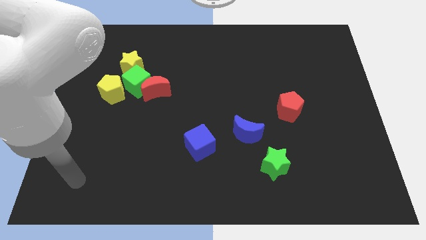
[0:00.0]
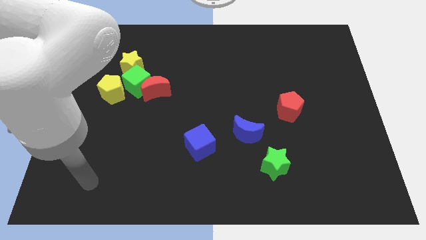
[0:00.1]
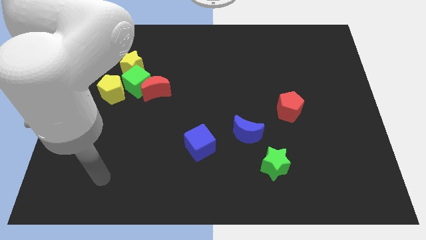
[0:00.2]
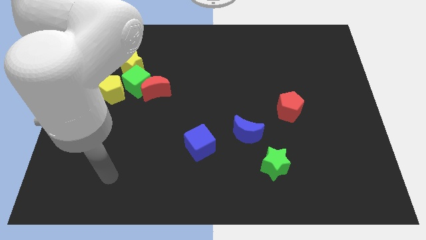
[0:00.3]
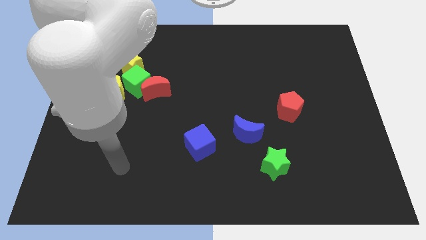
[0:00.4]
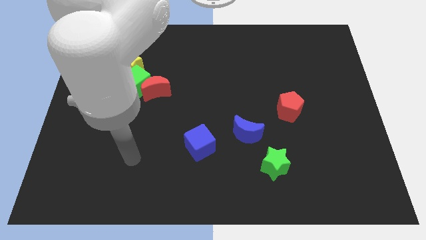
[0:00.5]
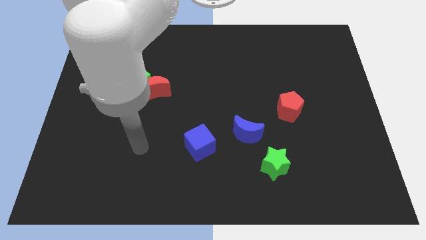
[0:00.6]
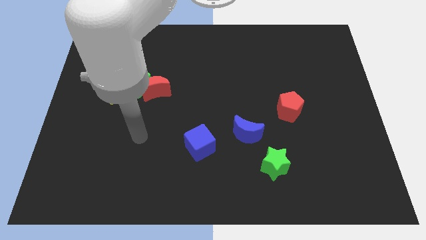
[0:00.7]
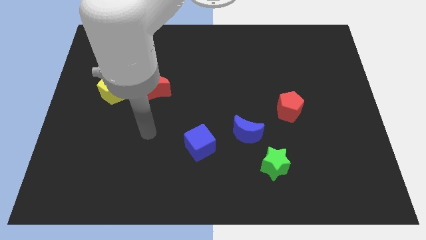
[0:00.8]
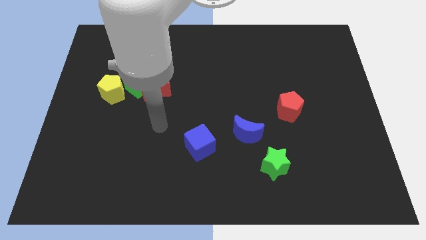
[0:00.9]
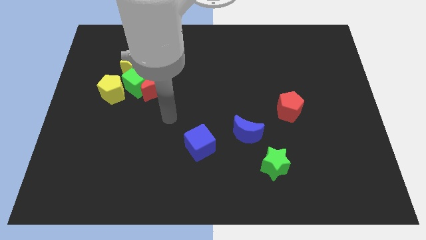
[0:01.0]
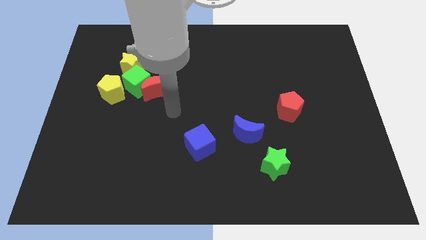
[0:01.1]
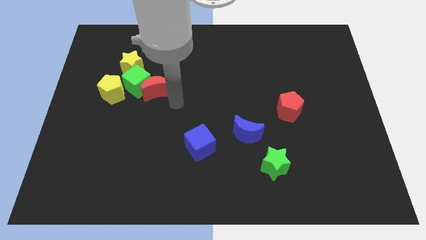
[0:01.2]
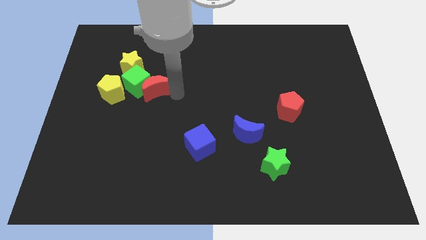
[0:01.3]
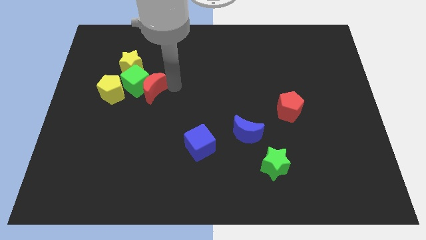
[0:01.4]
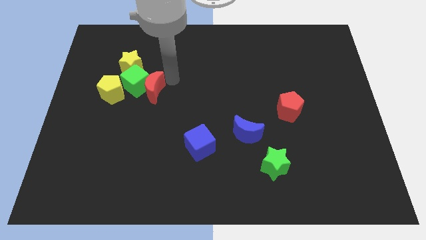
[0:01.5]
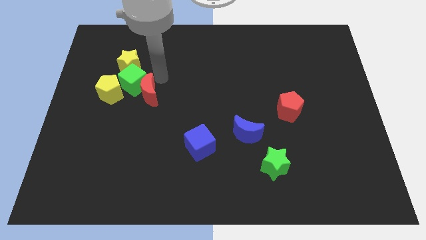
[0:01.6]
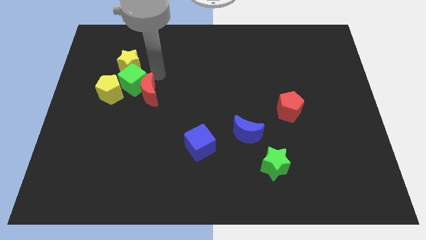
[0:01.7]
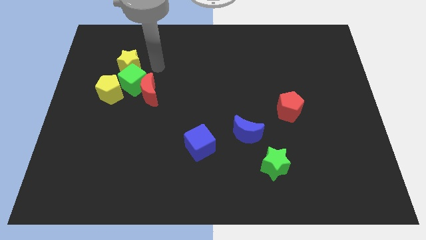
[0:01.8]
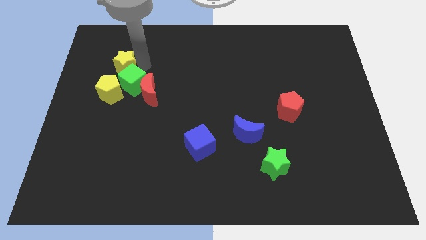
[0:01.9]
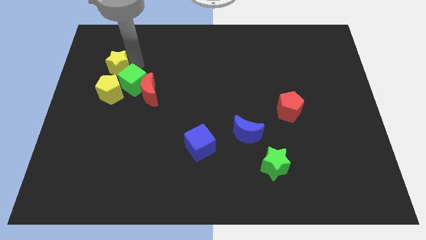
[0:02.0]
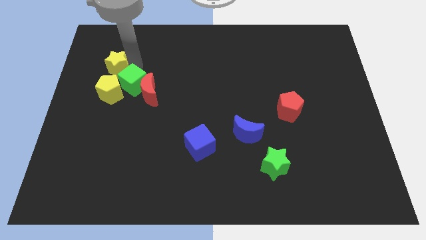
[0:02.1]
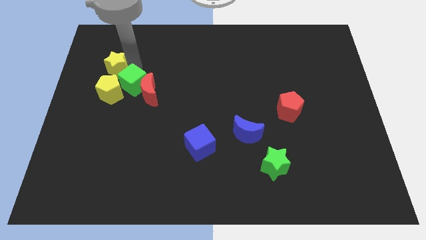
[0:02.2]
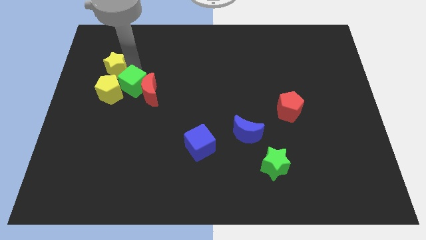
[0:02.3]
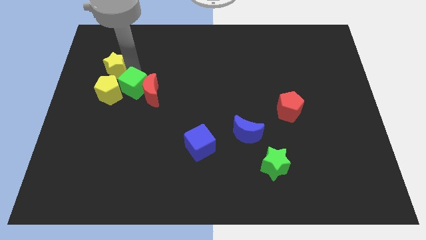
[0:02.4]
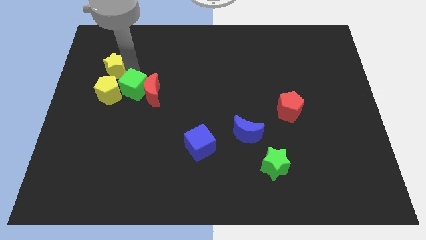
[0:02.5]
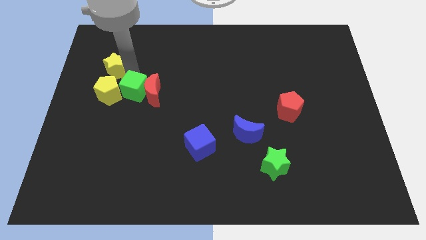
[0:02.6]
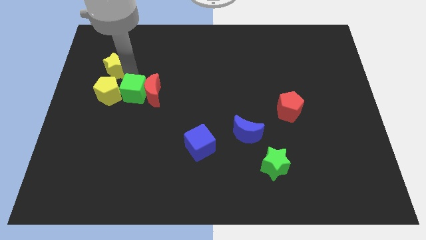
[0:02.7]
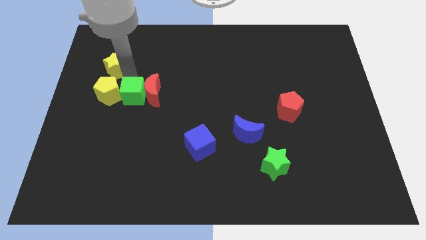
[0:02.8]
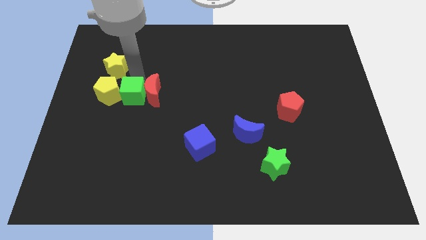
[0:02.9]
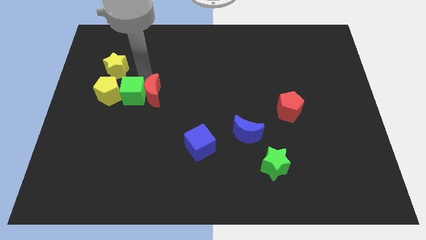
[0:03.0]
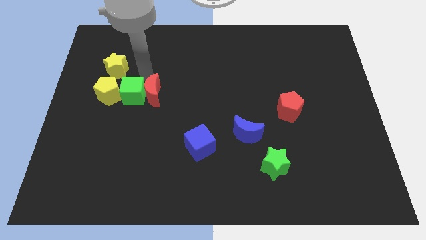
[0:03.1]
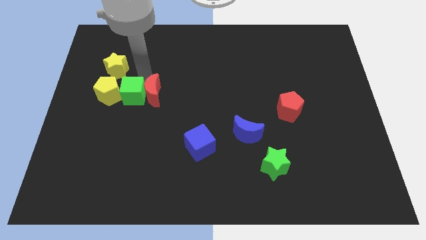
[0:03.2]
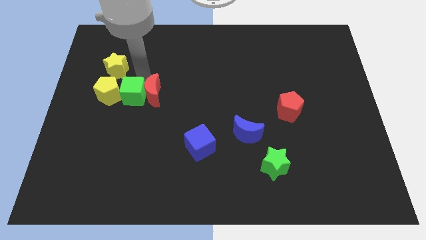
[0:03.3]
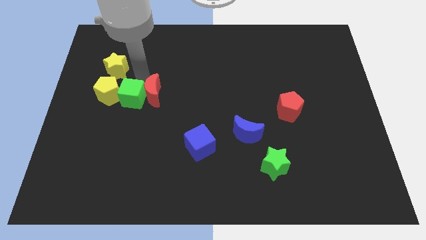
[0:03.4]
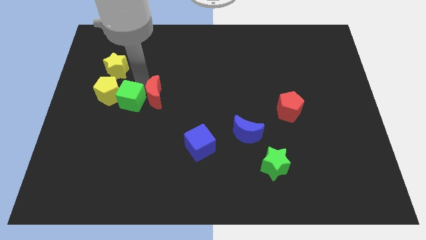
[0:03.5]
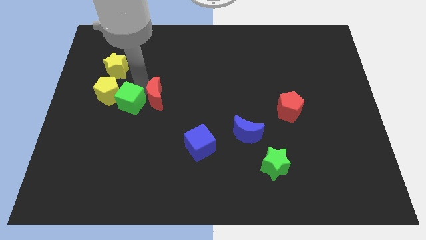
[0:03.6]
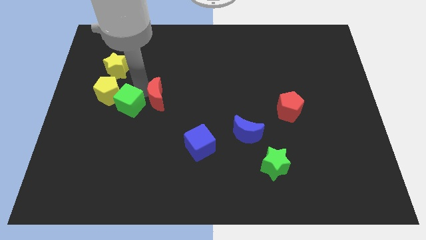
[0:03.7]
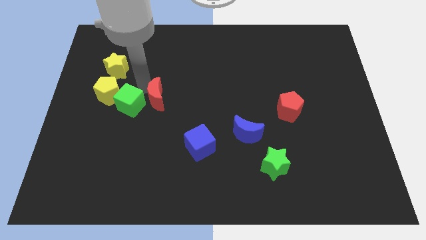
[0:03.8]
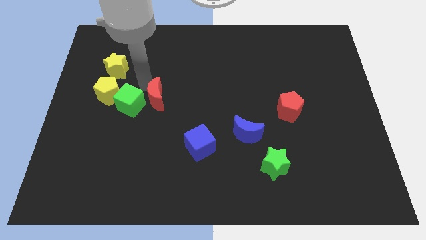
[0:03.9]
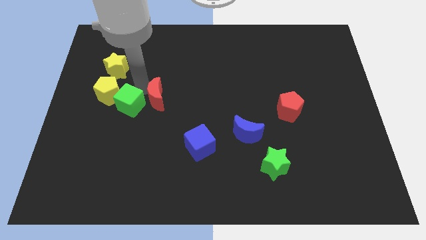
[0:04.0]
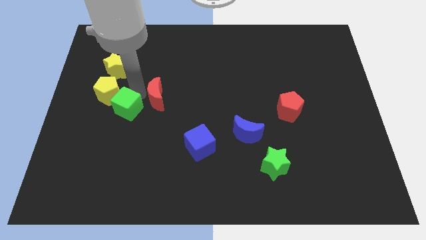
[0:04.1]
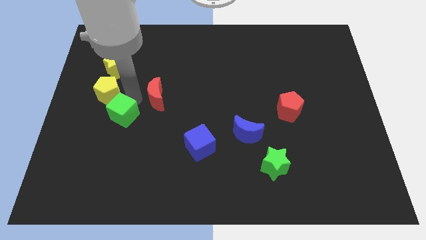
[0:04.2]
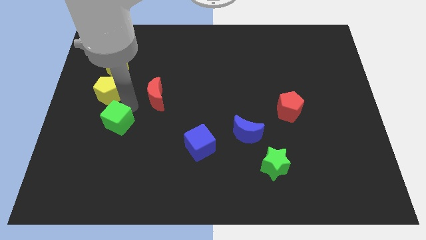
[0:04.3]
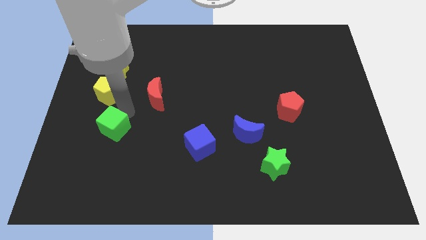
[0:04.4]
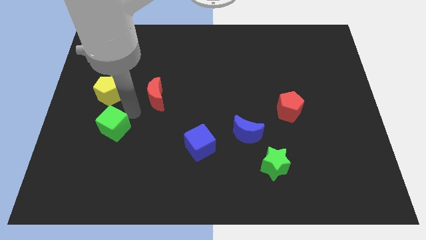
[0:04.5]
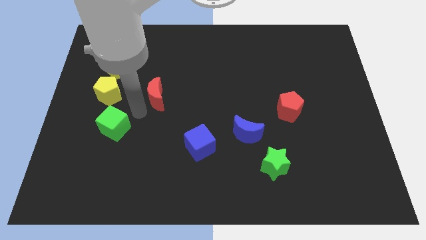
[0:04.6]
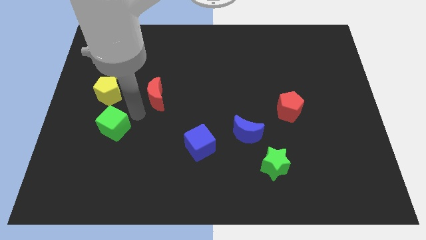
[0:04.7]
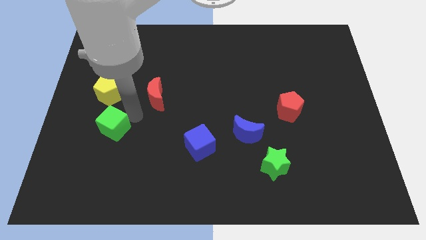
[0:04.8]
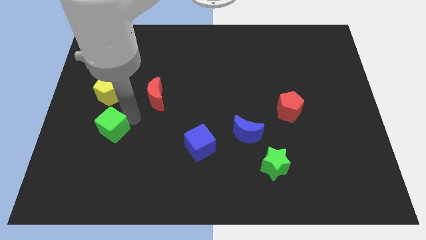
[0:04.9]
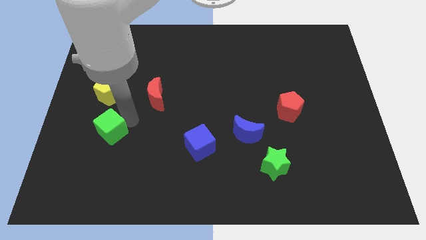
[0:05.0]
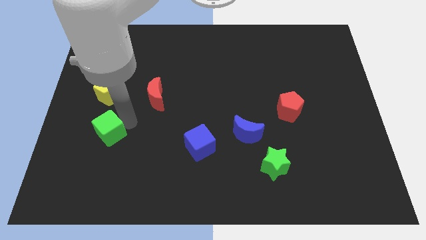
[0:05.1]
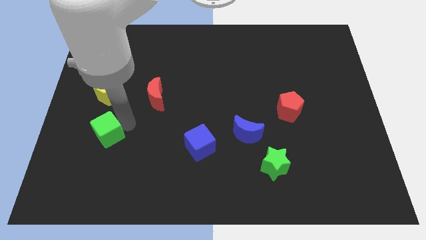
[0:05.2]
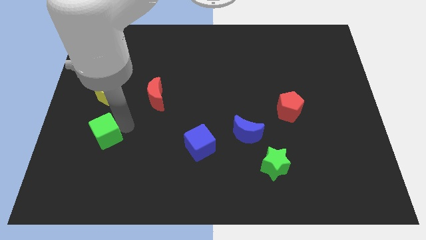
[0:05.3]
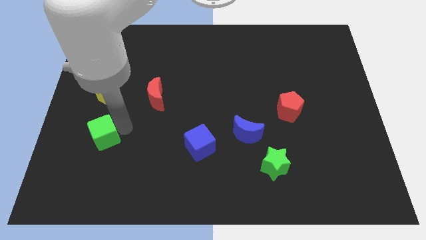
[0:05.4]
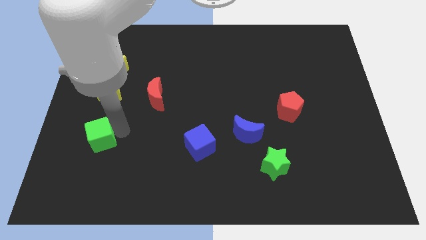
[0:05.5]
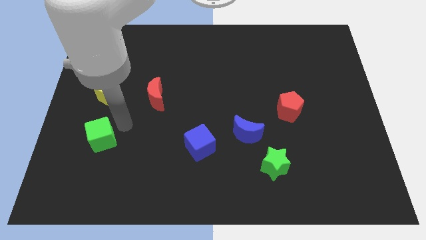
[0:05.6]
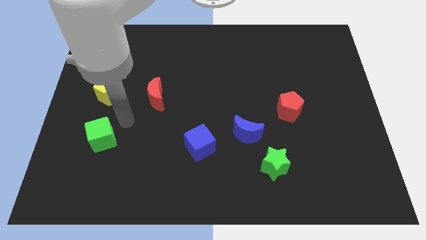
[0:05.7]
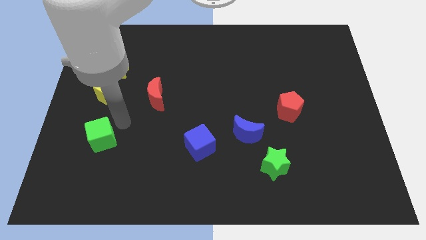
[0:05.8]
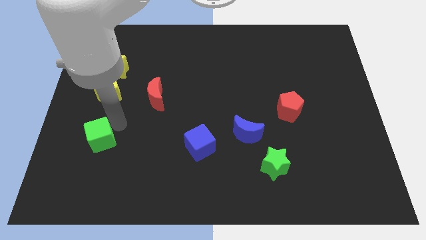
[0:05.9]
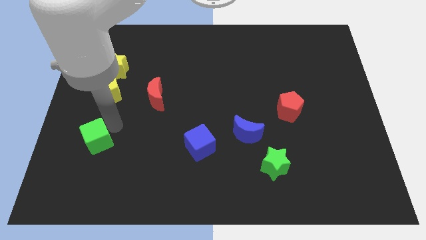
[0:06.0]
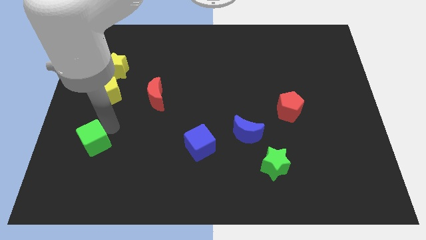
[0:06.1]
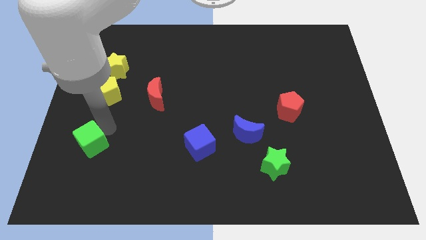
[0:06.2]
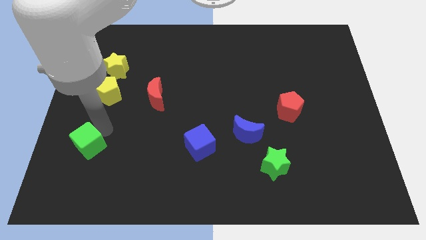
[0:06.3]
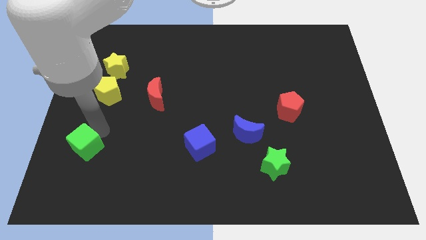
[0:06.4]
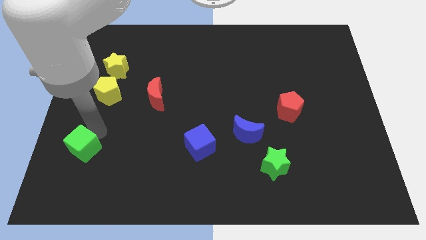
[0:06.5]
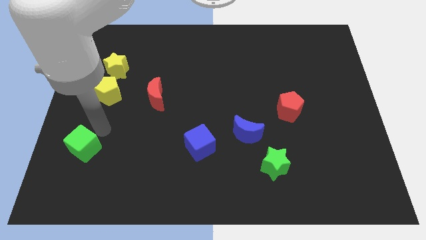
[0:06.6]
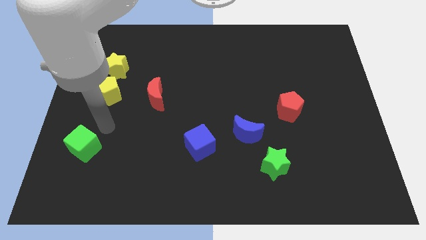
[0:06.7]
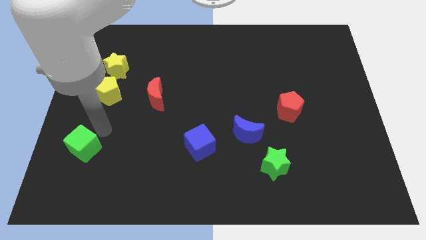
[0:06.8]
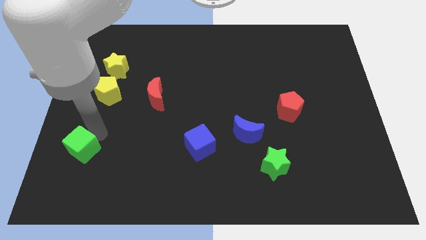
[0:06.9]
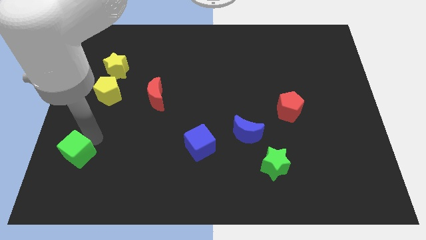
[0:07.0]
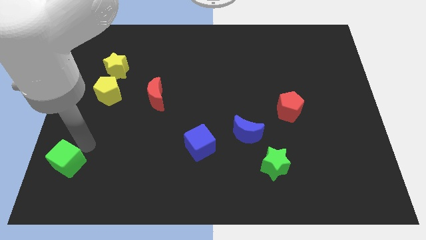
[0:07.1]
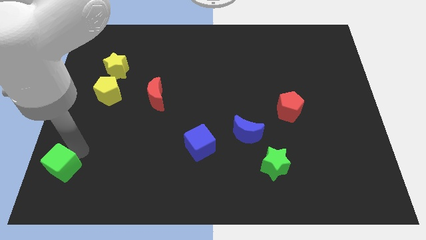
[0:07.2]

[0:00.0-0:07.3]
move the green cube to the bottom left corner

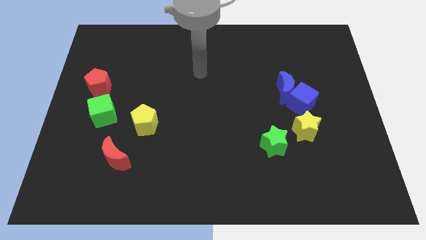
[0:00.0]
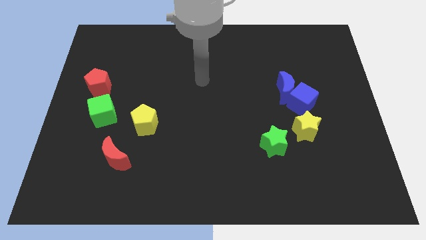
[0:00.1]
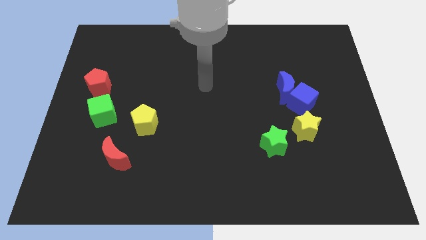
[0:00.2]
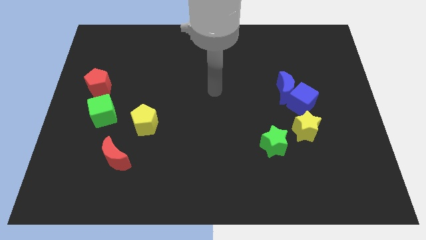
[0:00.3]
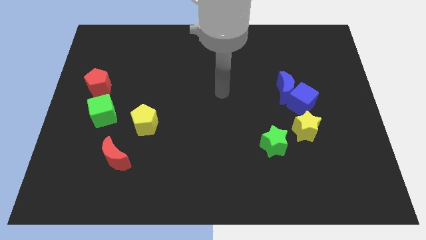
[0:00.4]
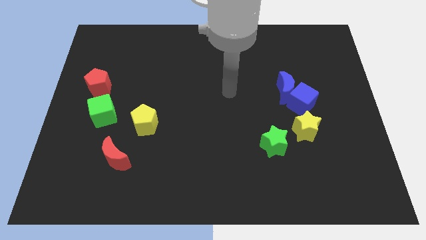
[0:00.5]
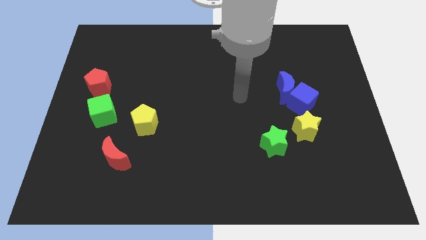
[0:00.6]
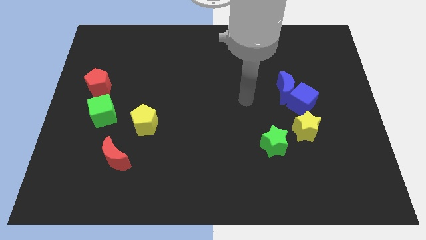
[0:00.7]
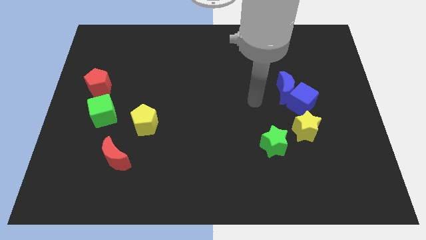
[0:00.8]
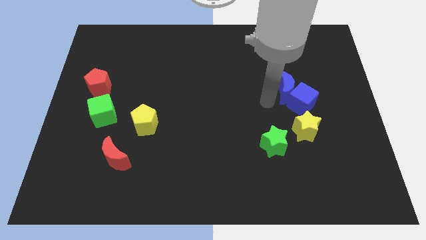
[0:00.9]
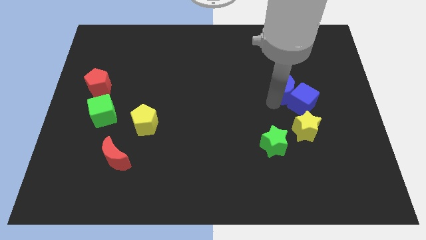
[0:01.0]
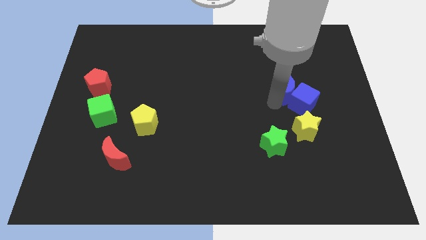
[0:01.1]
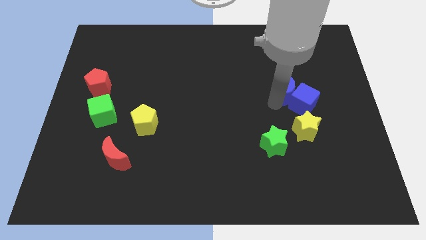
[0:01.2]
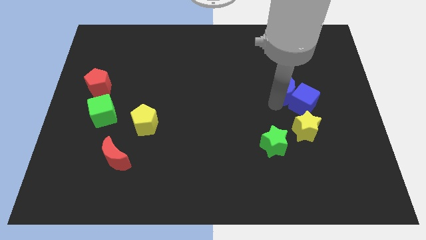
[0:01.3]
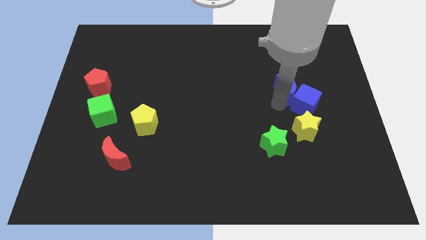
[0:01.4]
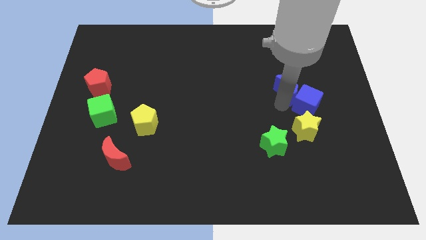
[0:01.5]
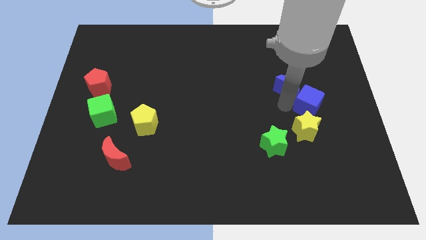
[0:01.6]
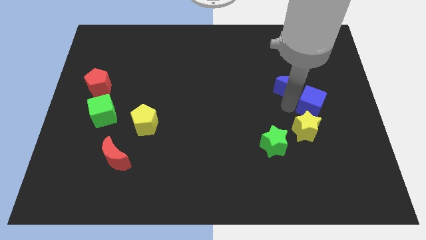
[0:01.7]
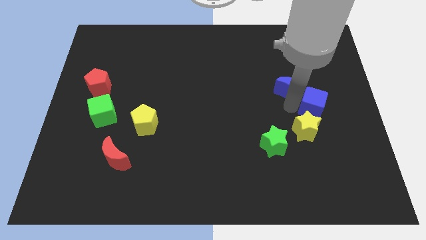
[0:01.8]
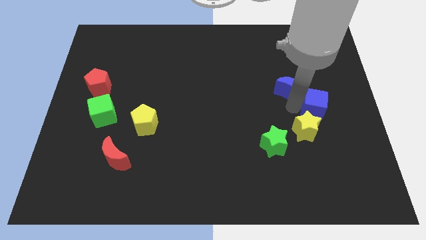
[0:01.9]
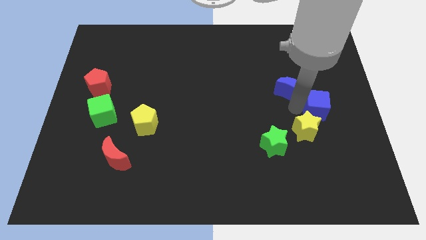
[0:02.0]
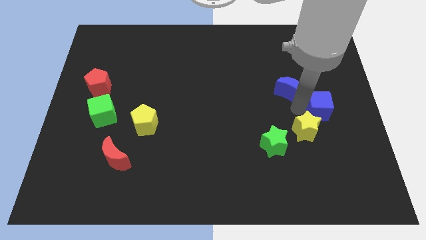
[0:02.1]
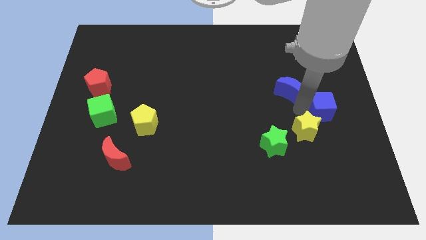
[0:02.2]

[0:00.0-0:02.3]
put the blue cube to the right side
